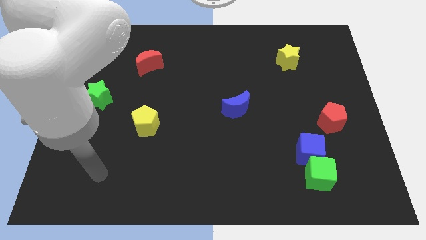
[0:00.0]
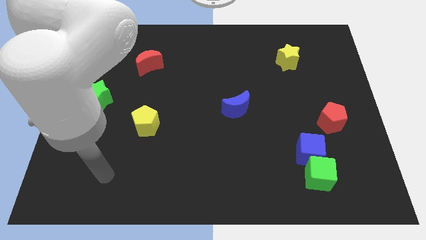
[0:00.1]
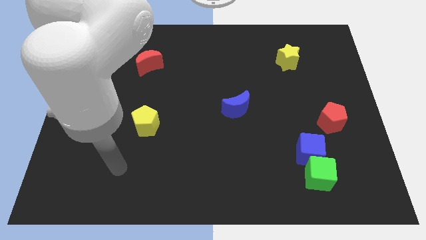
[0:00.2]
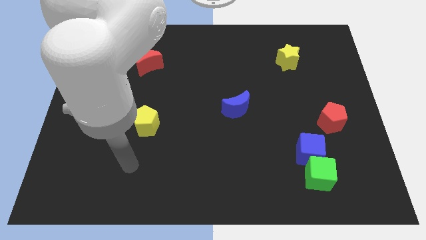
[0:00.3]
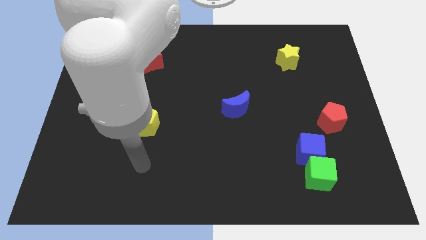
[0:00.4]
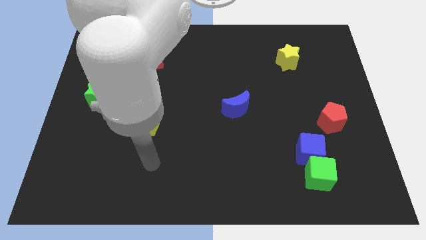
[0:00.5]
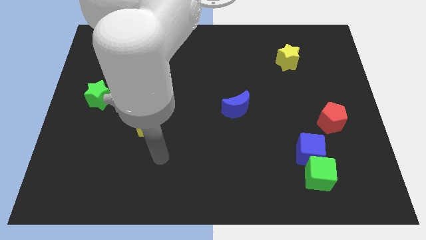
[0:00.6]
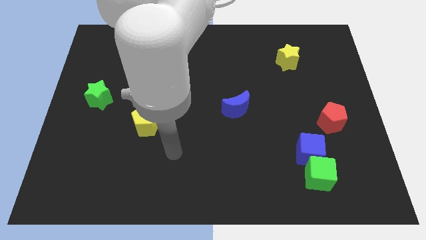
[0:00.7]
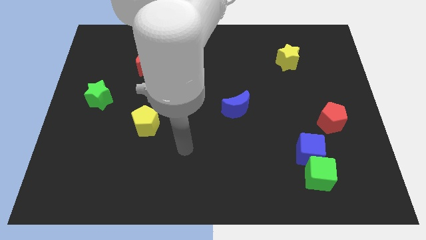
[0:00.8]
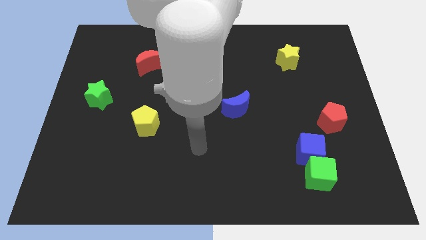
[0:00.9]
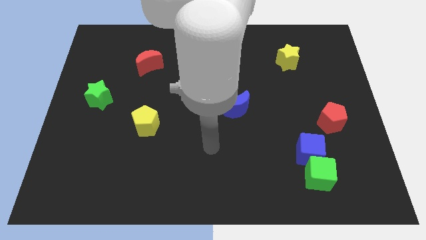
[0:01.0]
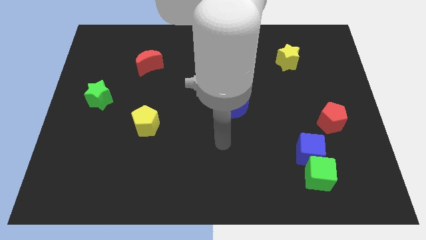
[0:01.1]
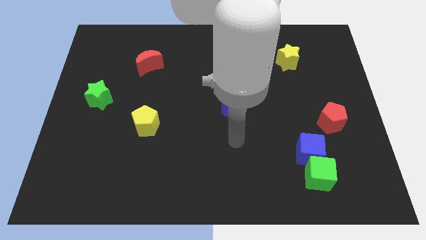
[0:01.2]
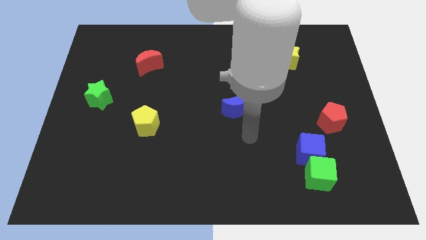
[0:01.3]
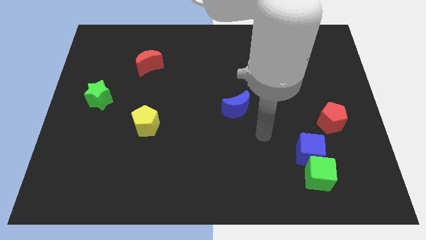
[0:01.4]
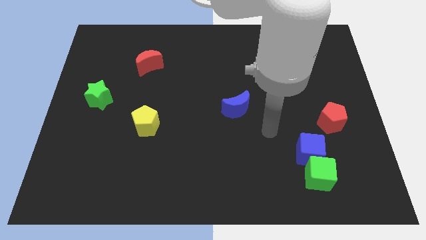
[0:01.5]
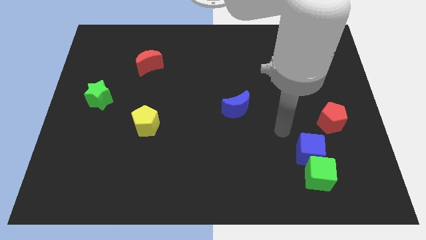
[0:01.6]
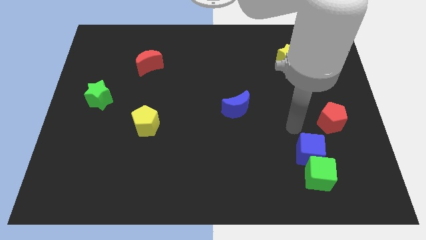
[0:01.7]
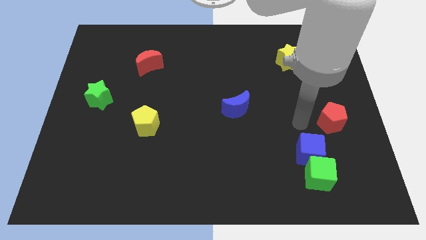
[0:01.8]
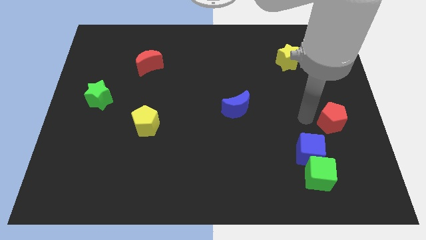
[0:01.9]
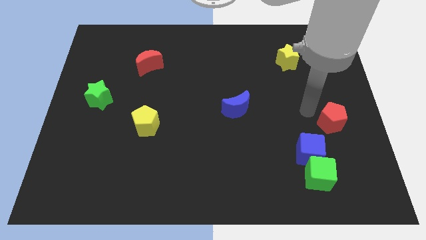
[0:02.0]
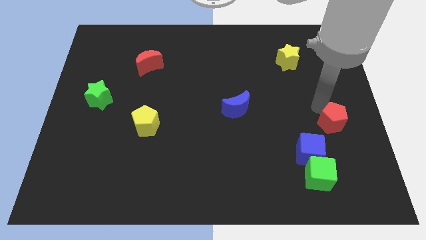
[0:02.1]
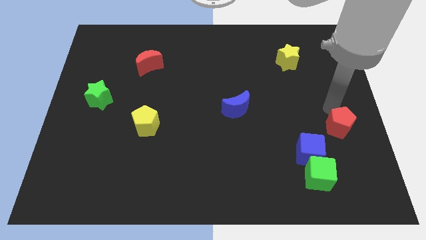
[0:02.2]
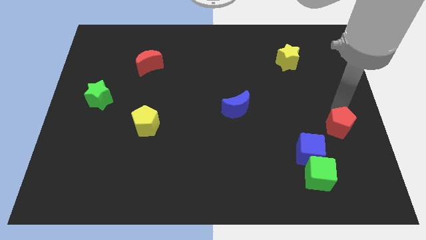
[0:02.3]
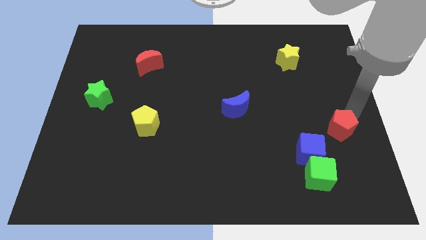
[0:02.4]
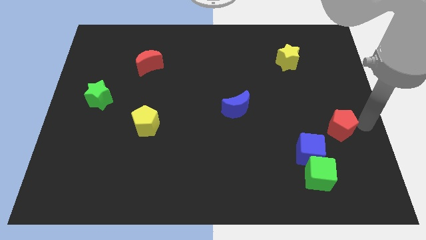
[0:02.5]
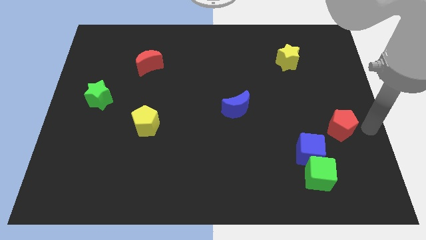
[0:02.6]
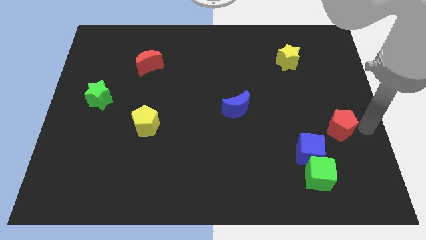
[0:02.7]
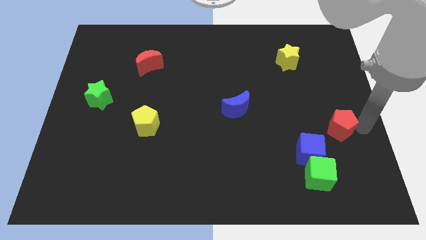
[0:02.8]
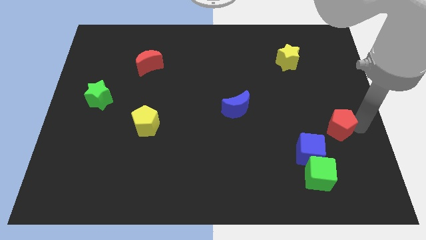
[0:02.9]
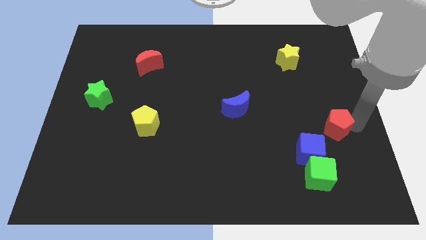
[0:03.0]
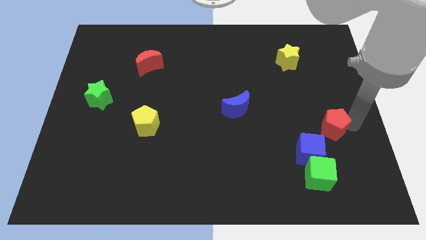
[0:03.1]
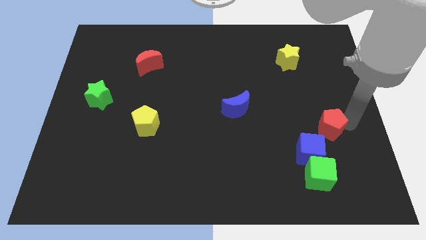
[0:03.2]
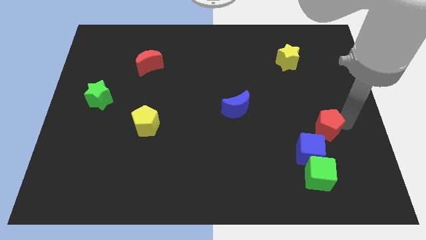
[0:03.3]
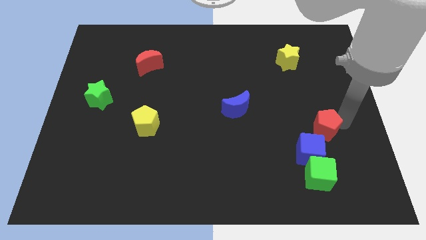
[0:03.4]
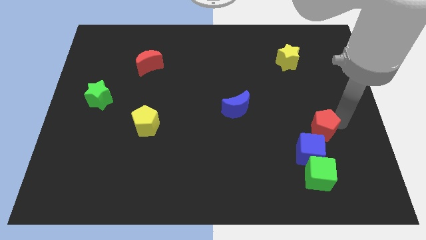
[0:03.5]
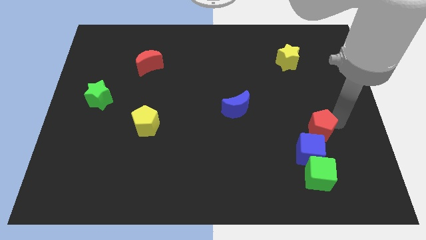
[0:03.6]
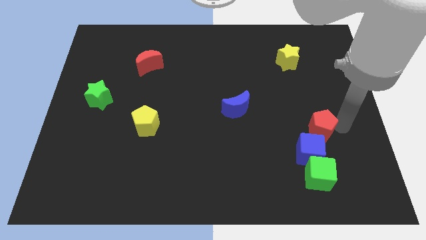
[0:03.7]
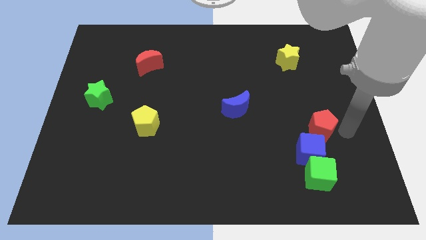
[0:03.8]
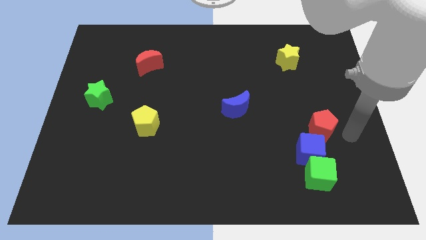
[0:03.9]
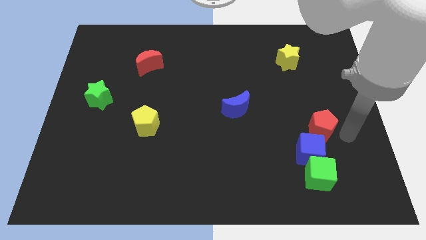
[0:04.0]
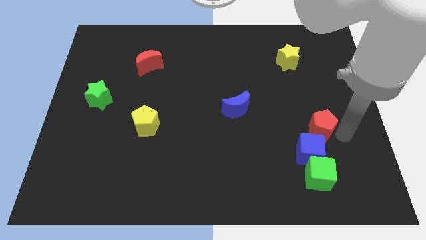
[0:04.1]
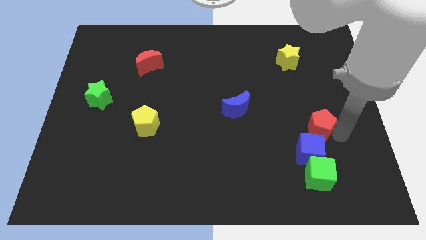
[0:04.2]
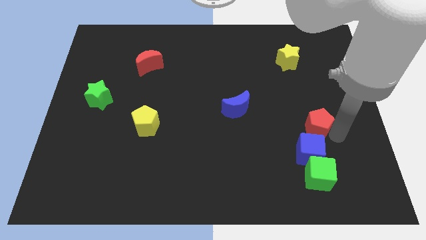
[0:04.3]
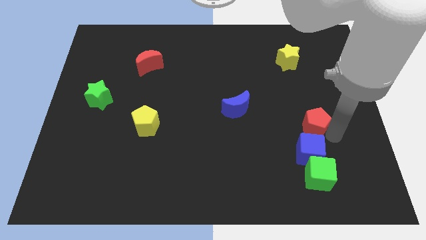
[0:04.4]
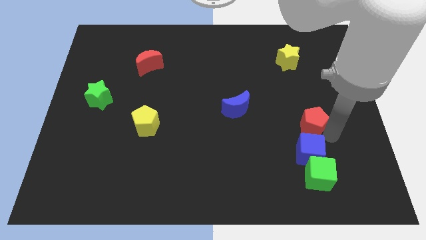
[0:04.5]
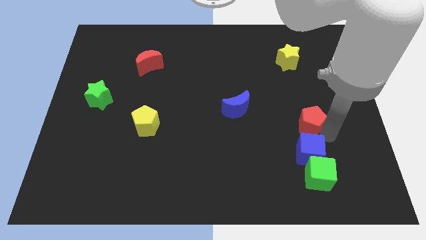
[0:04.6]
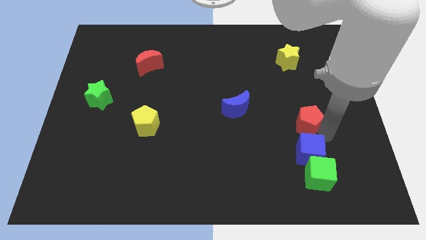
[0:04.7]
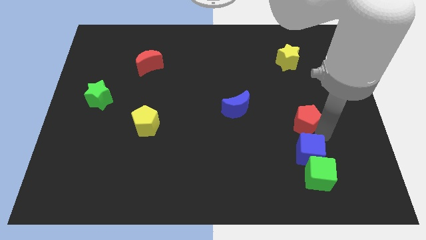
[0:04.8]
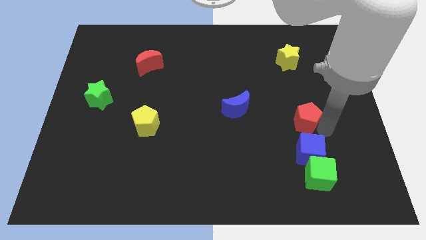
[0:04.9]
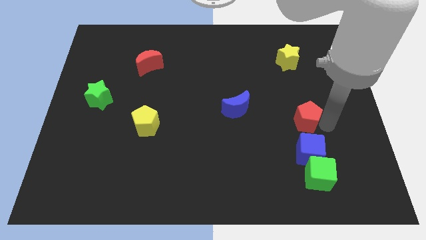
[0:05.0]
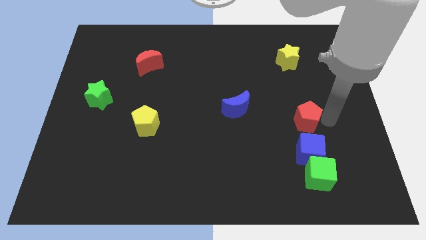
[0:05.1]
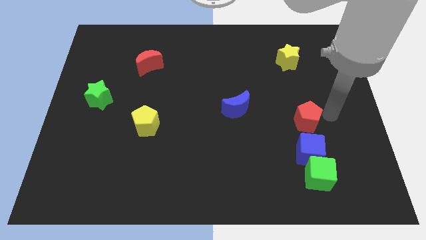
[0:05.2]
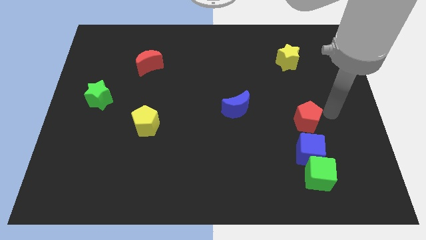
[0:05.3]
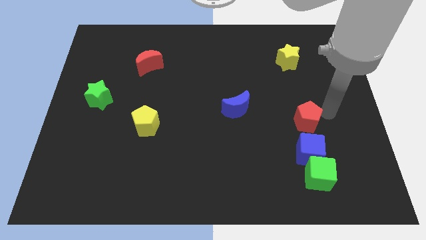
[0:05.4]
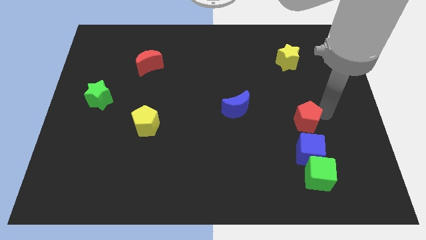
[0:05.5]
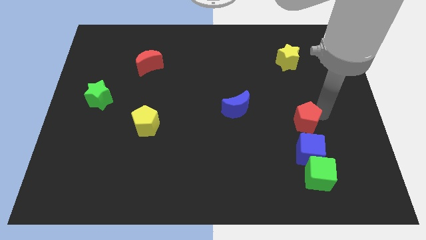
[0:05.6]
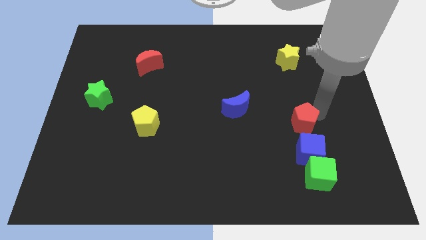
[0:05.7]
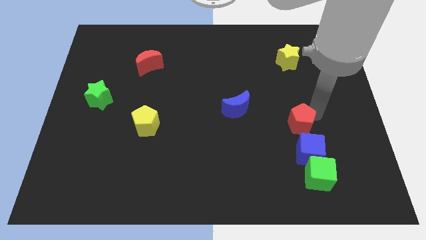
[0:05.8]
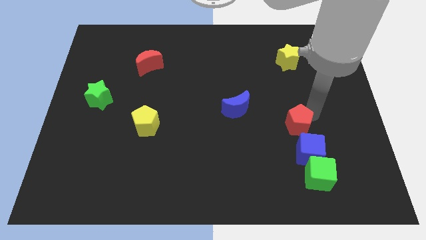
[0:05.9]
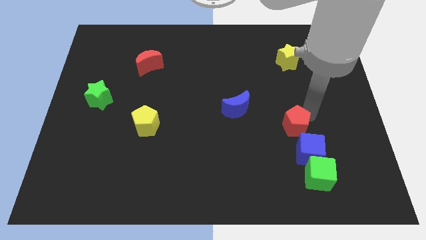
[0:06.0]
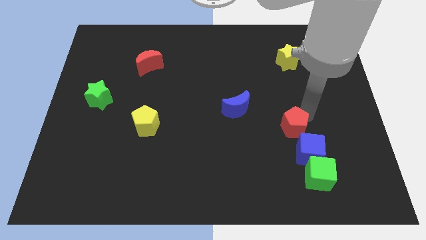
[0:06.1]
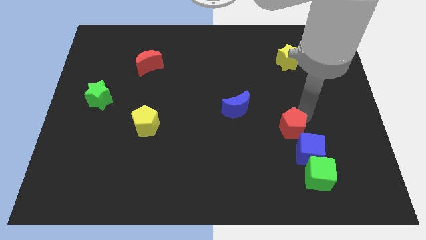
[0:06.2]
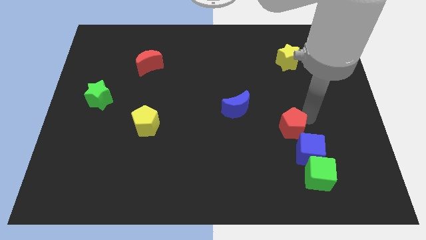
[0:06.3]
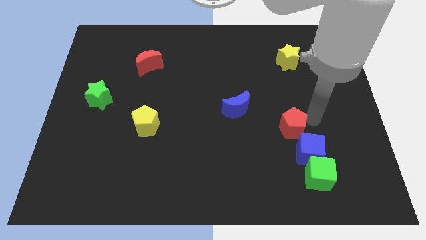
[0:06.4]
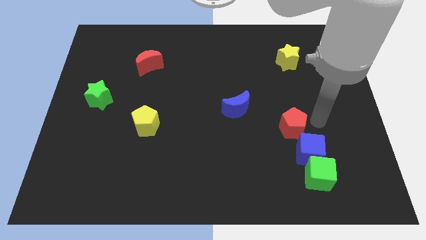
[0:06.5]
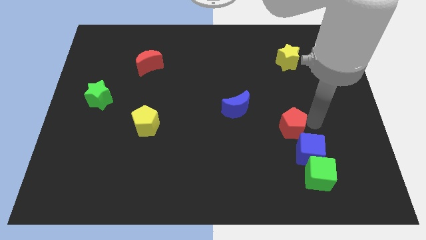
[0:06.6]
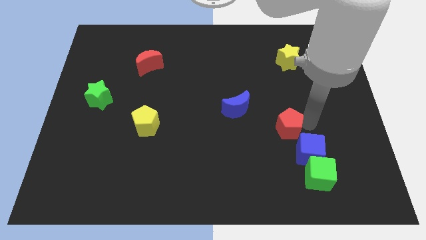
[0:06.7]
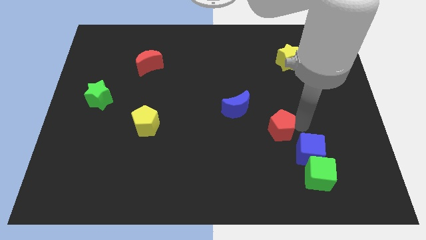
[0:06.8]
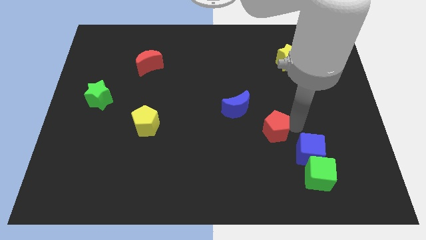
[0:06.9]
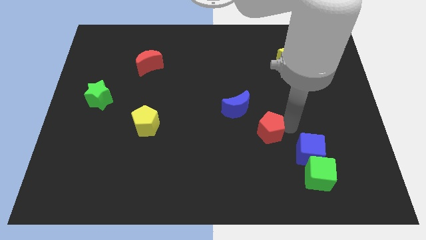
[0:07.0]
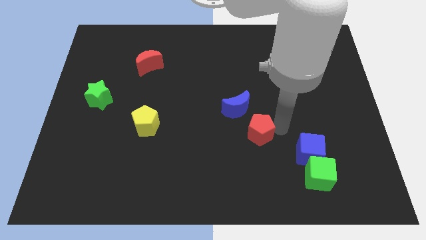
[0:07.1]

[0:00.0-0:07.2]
slide the red pentagon to the bottom of the blue moon

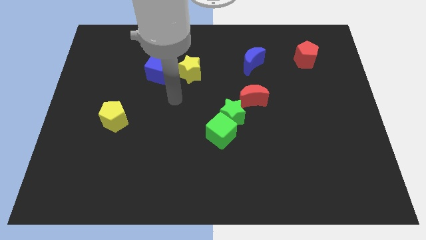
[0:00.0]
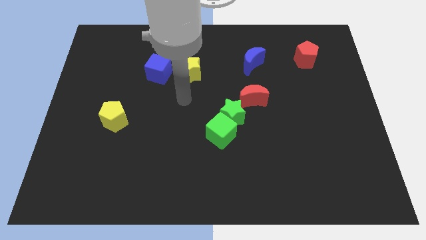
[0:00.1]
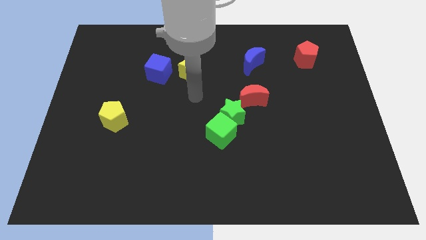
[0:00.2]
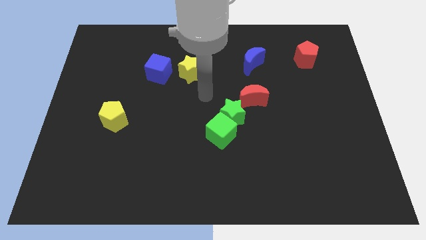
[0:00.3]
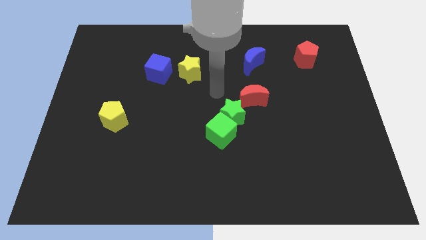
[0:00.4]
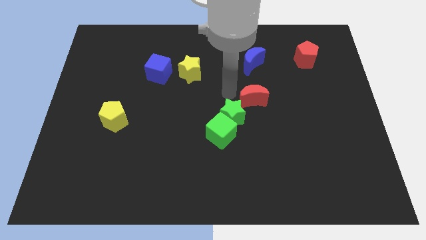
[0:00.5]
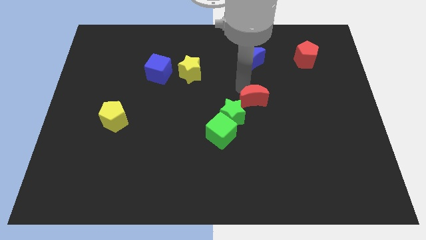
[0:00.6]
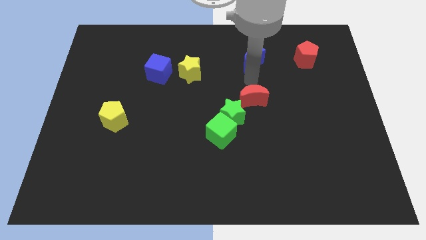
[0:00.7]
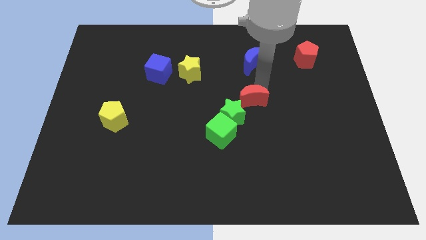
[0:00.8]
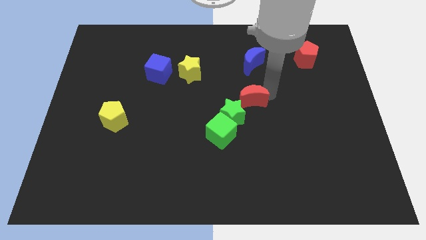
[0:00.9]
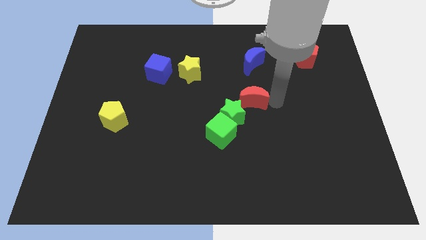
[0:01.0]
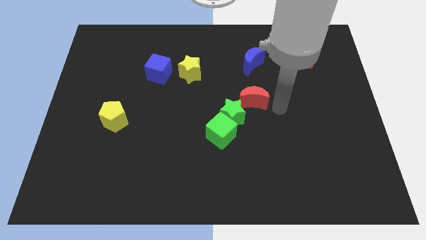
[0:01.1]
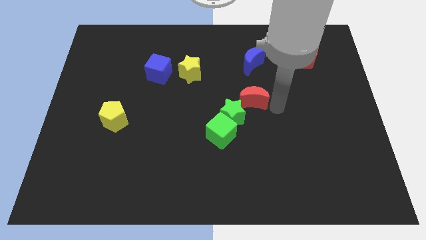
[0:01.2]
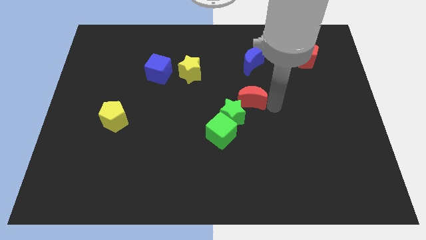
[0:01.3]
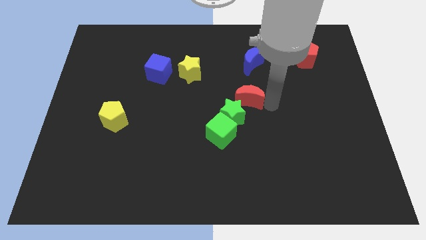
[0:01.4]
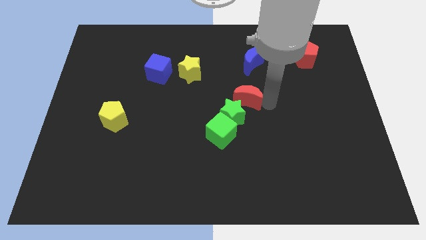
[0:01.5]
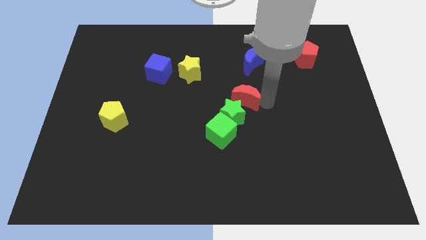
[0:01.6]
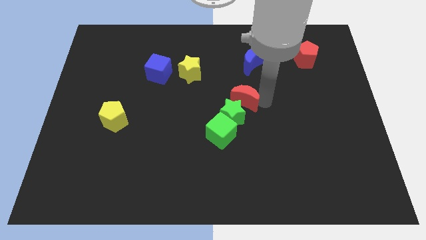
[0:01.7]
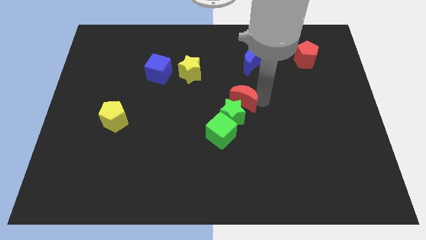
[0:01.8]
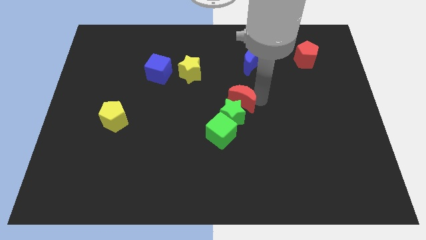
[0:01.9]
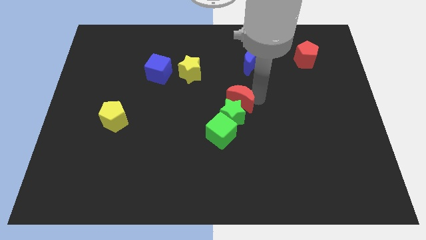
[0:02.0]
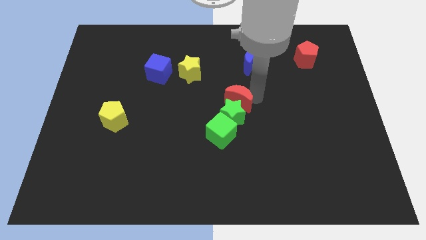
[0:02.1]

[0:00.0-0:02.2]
put the red moon to the top left side of the green star
